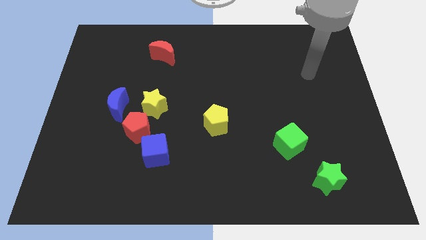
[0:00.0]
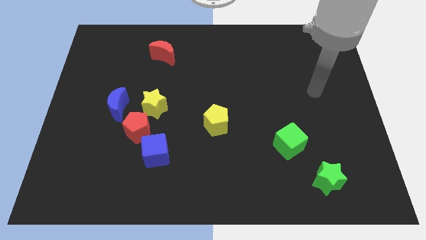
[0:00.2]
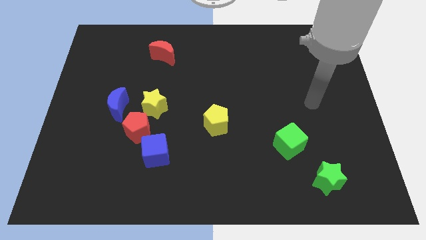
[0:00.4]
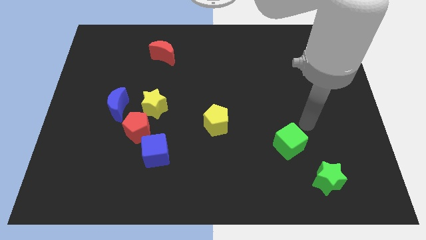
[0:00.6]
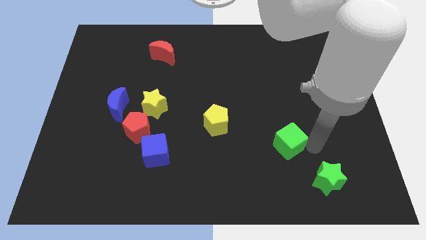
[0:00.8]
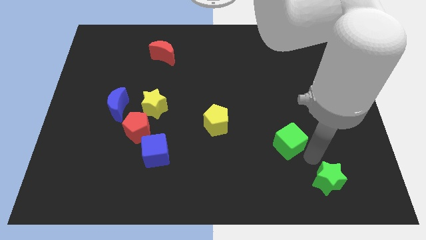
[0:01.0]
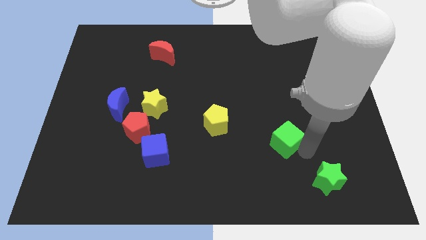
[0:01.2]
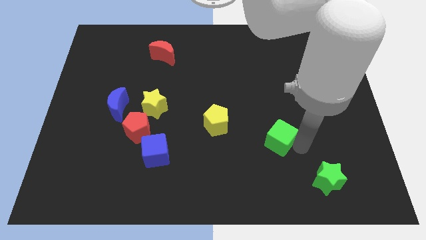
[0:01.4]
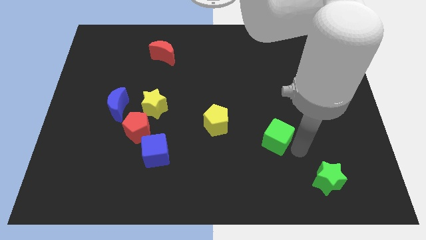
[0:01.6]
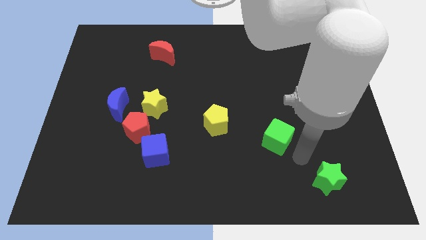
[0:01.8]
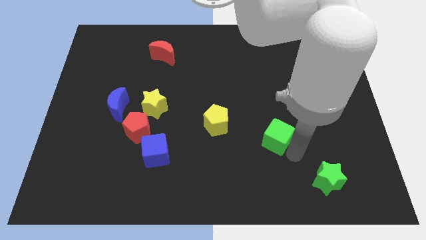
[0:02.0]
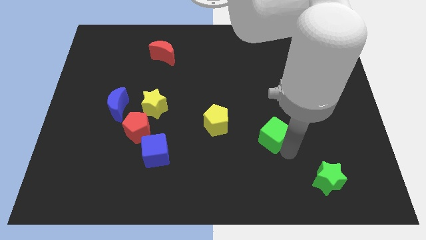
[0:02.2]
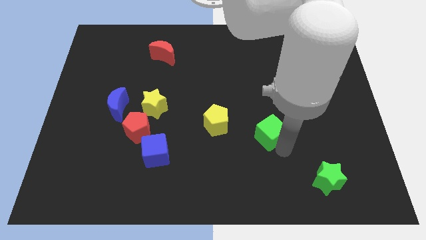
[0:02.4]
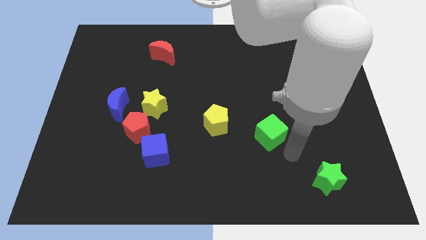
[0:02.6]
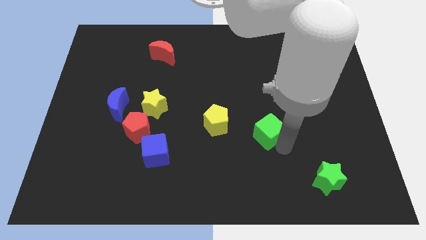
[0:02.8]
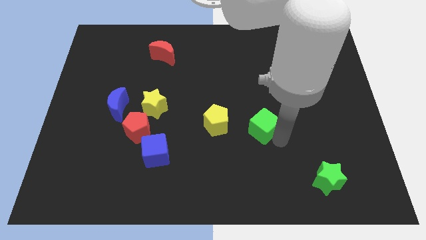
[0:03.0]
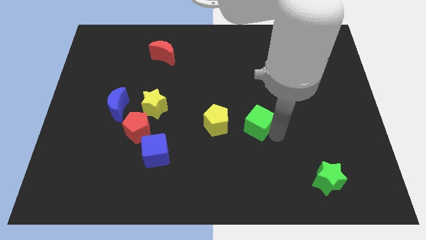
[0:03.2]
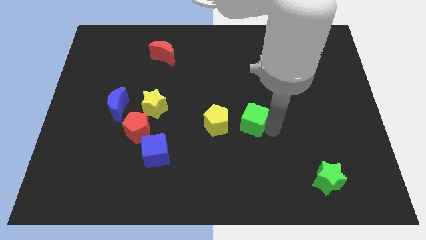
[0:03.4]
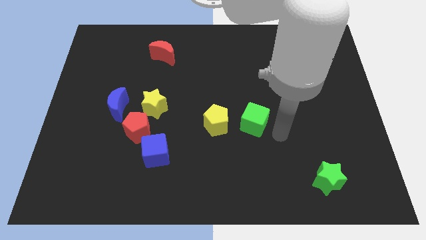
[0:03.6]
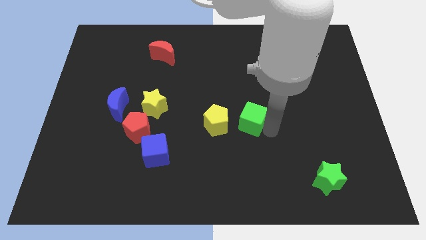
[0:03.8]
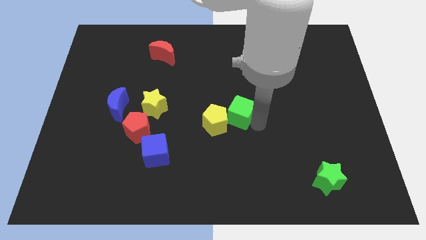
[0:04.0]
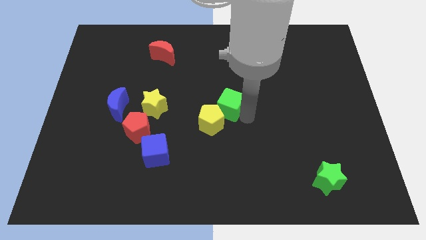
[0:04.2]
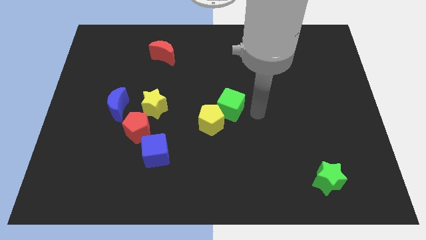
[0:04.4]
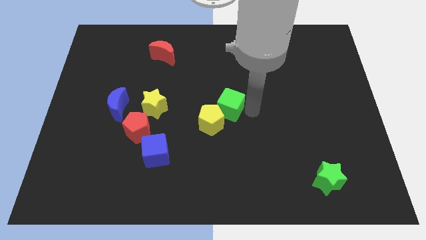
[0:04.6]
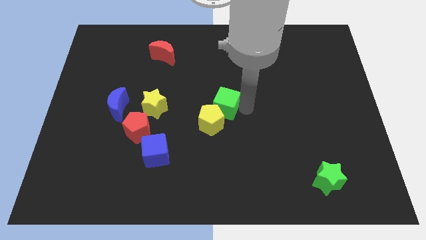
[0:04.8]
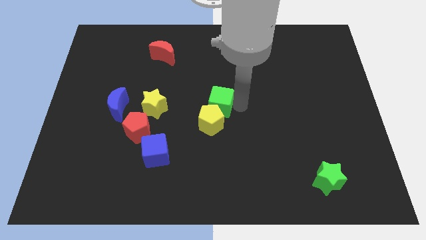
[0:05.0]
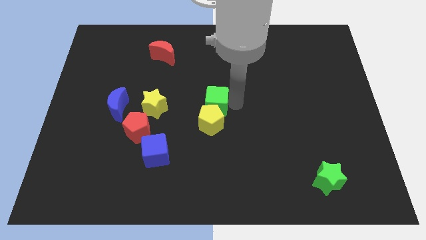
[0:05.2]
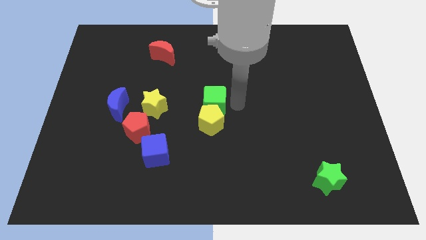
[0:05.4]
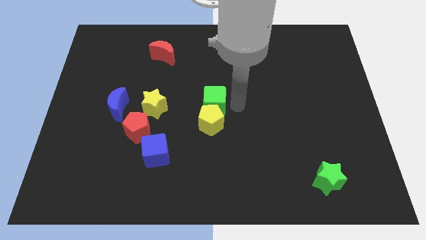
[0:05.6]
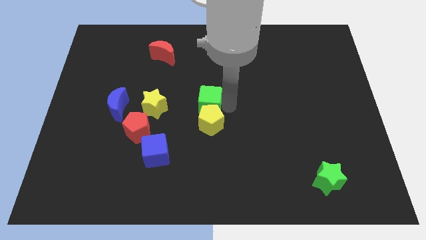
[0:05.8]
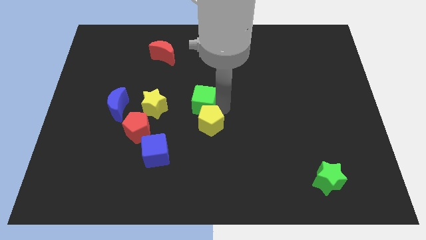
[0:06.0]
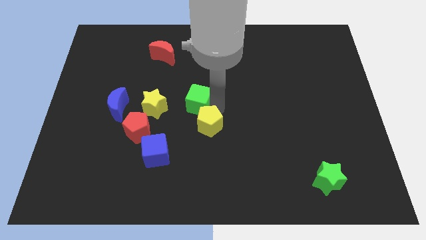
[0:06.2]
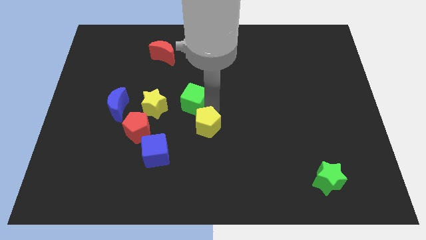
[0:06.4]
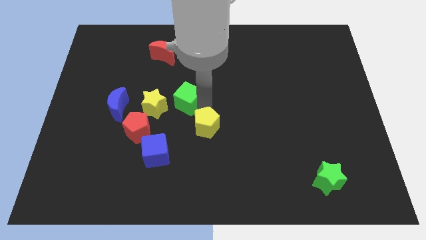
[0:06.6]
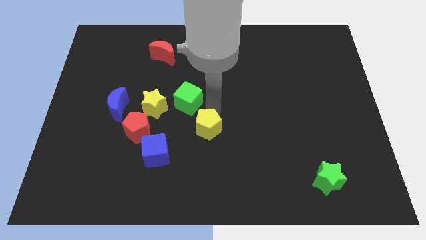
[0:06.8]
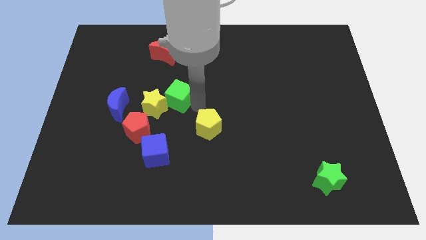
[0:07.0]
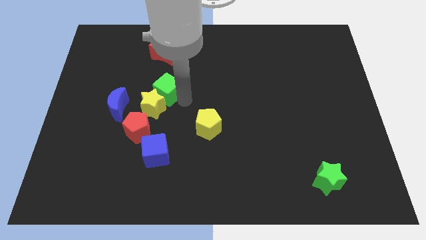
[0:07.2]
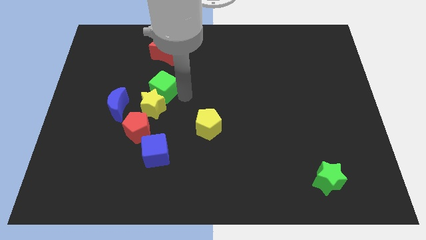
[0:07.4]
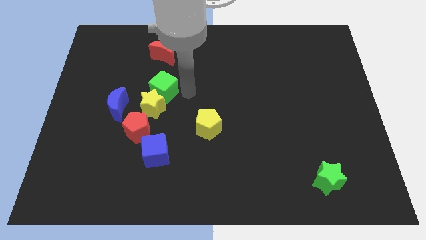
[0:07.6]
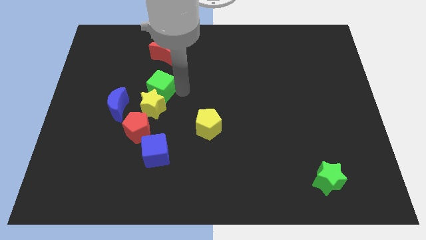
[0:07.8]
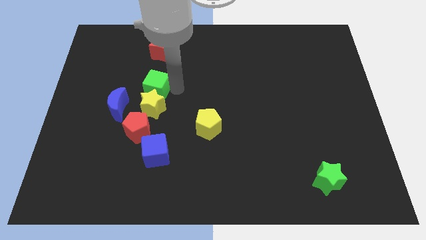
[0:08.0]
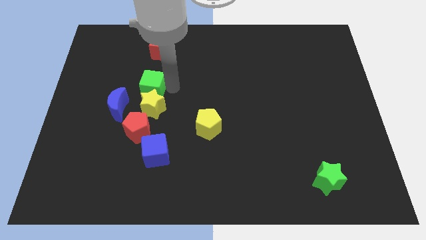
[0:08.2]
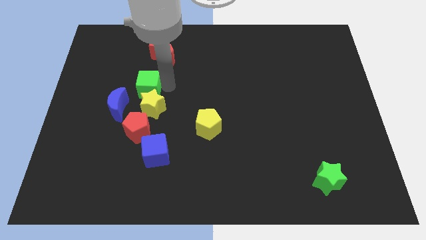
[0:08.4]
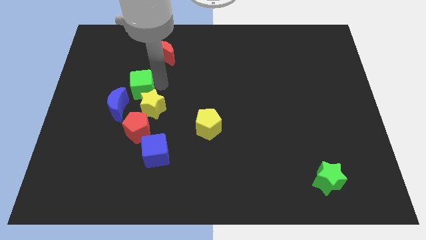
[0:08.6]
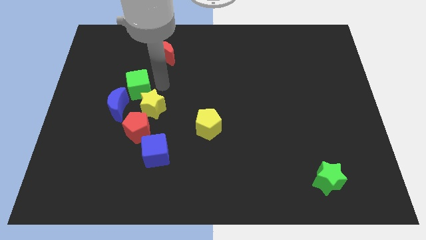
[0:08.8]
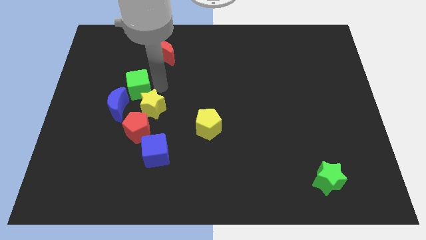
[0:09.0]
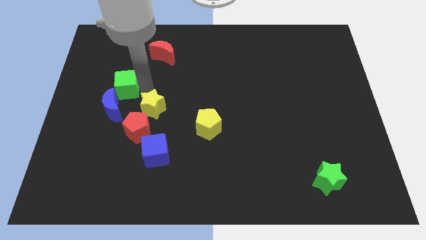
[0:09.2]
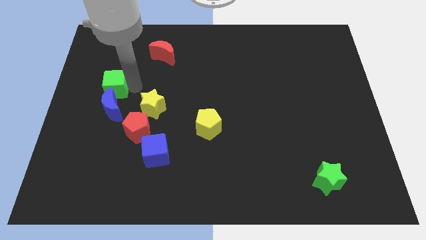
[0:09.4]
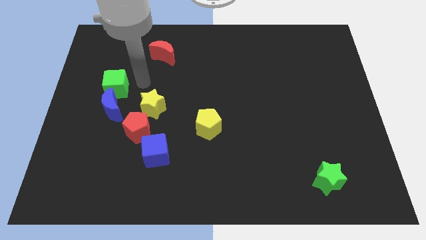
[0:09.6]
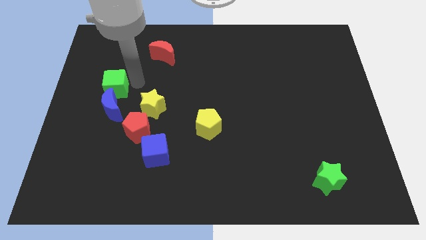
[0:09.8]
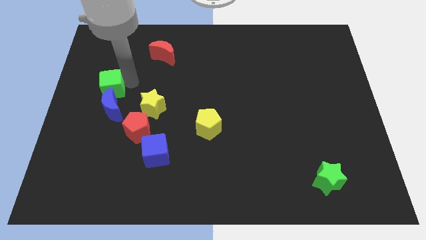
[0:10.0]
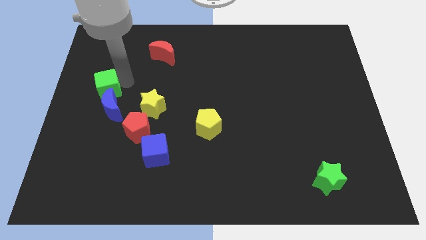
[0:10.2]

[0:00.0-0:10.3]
move the green cube to the left side
